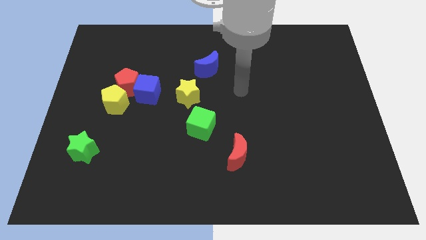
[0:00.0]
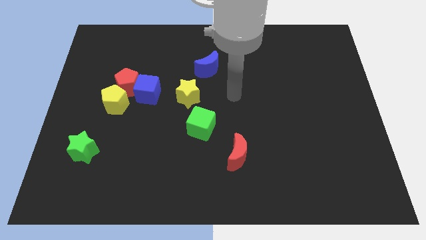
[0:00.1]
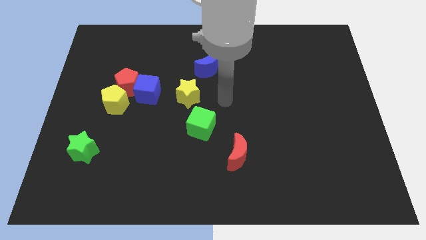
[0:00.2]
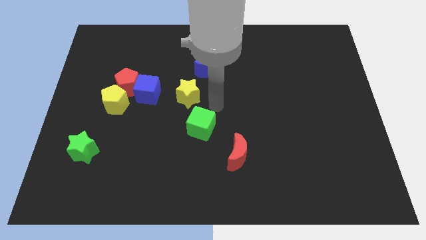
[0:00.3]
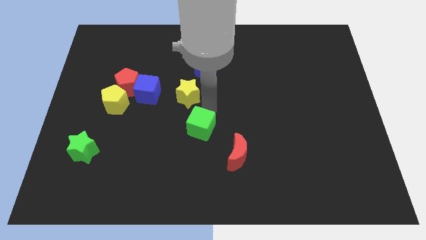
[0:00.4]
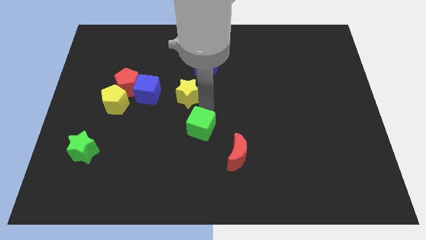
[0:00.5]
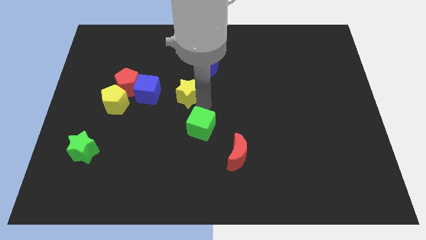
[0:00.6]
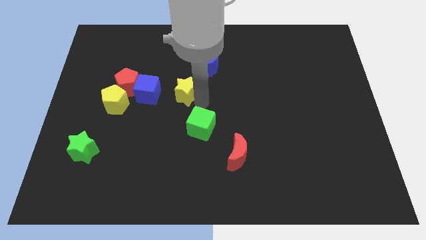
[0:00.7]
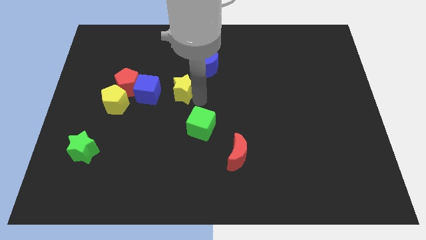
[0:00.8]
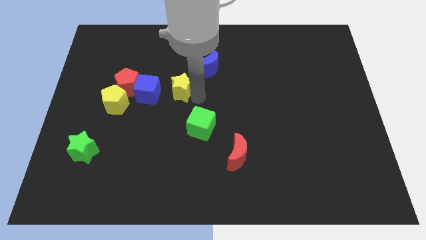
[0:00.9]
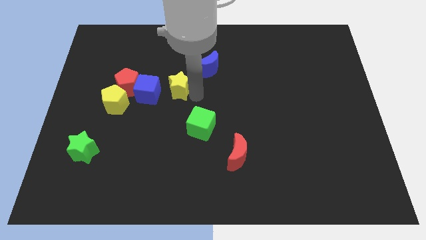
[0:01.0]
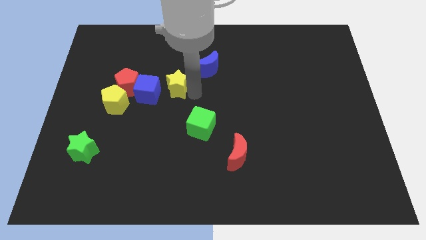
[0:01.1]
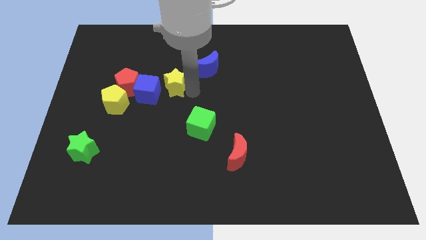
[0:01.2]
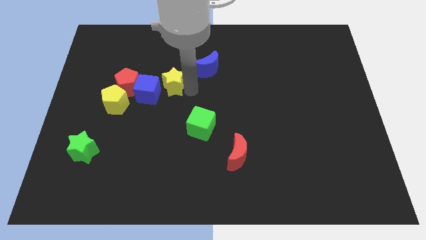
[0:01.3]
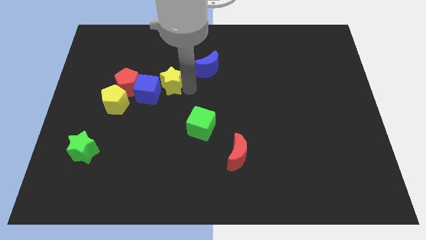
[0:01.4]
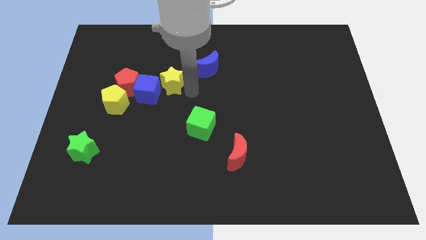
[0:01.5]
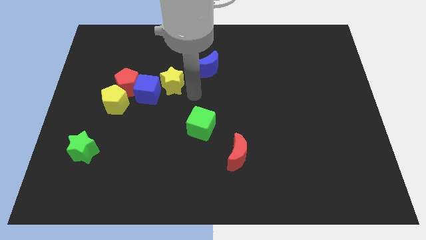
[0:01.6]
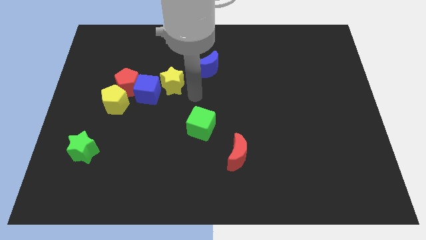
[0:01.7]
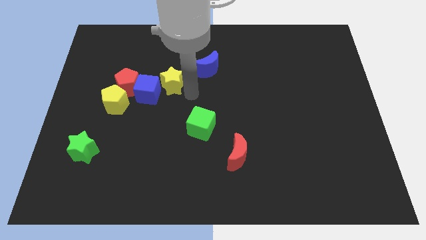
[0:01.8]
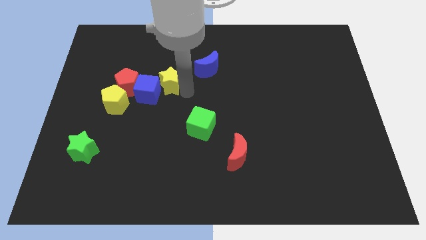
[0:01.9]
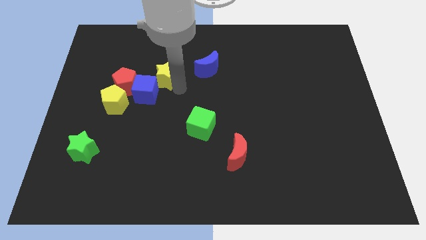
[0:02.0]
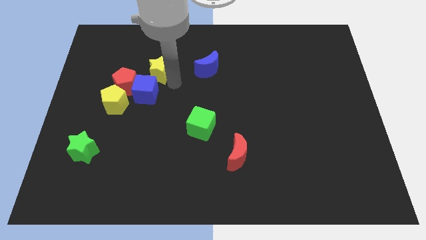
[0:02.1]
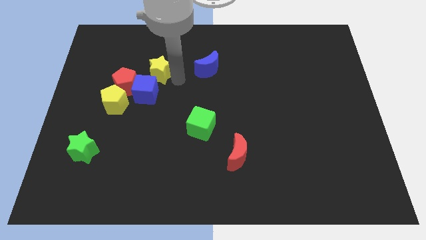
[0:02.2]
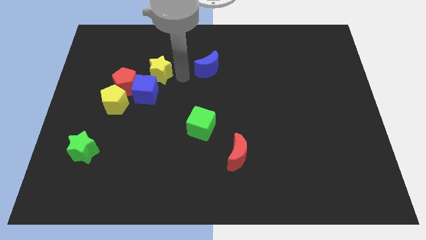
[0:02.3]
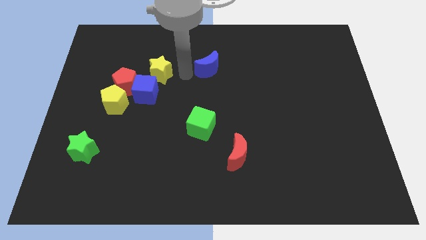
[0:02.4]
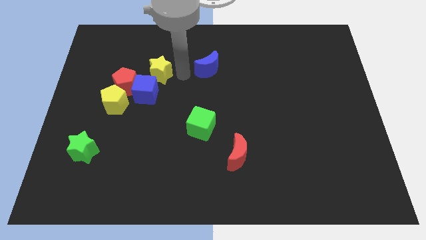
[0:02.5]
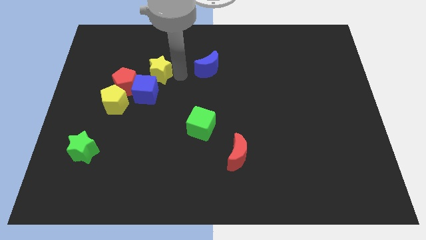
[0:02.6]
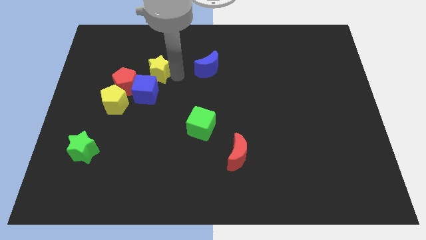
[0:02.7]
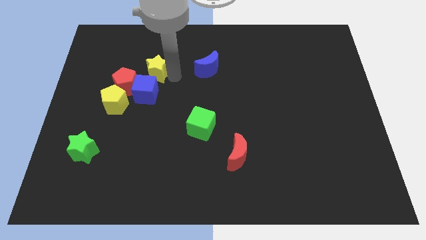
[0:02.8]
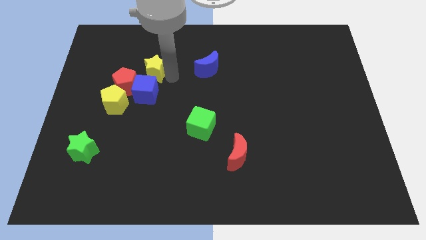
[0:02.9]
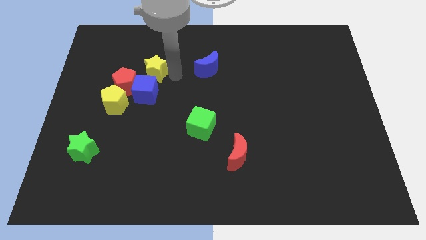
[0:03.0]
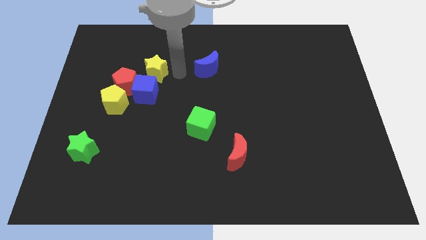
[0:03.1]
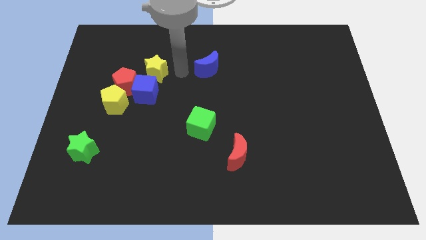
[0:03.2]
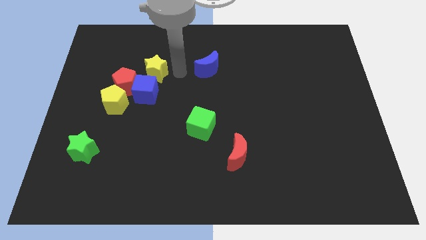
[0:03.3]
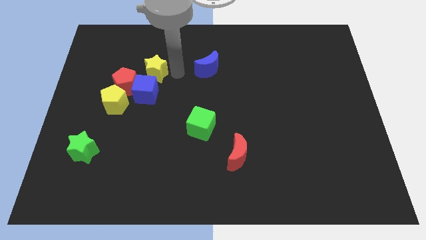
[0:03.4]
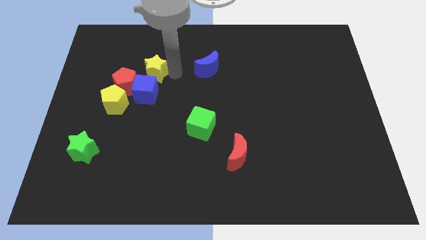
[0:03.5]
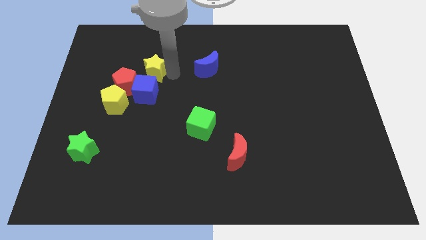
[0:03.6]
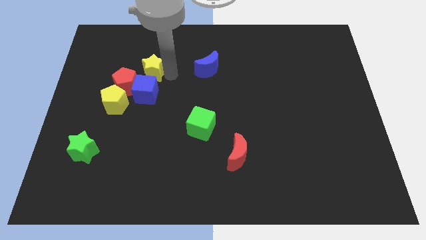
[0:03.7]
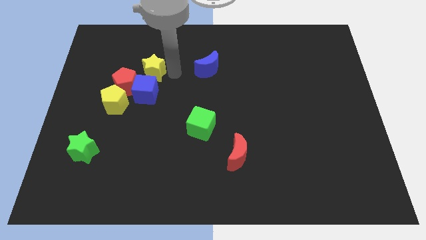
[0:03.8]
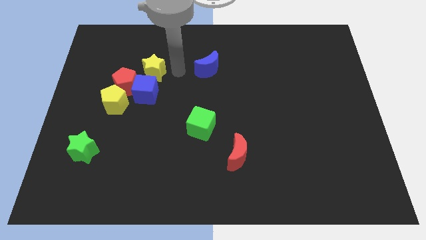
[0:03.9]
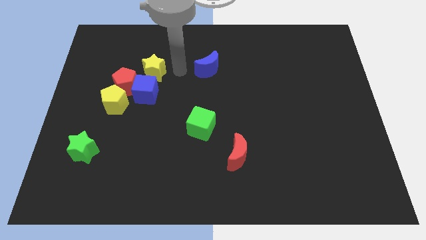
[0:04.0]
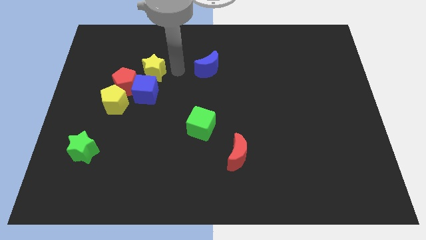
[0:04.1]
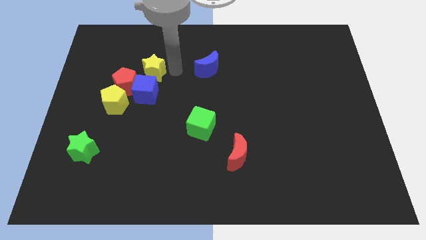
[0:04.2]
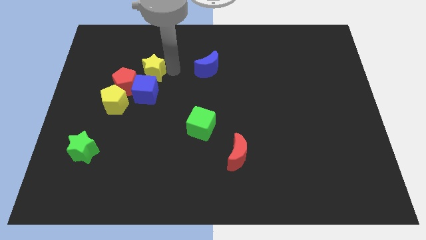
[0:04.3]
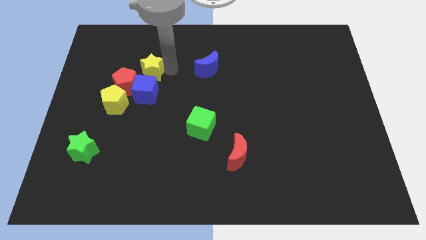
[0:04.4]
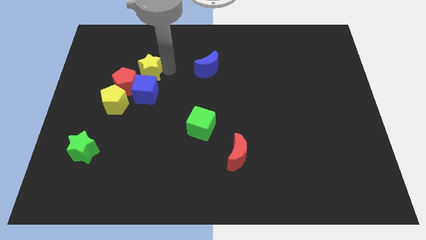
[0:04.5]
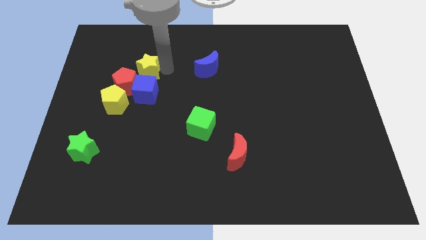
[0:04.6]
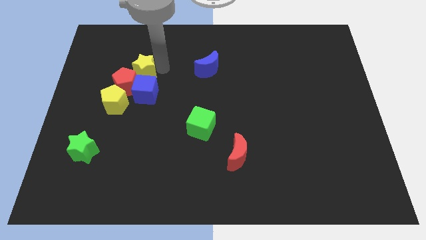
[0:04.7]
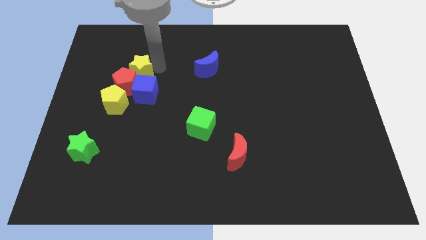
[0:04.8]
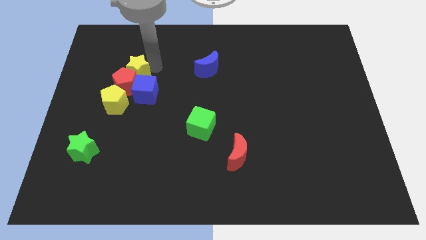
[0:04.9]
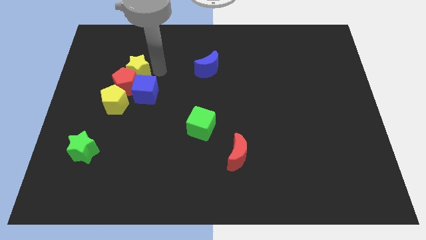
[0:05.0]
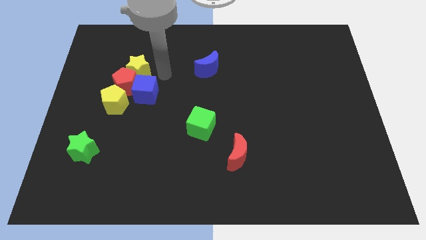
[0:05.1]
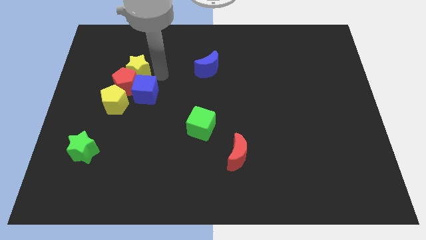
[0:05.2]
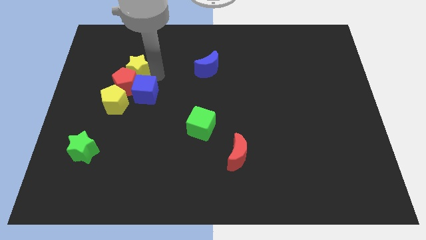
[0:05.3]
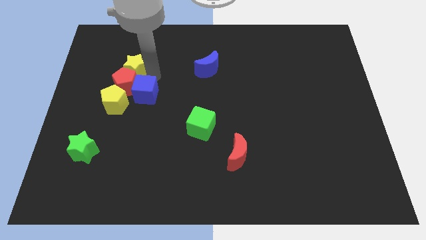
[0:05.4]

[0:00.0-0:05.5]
push the yellow star to the top left side of the red pentagon

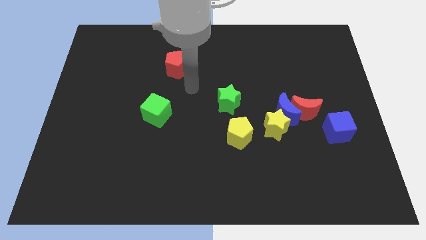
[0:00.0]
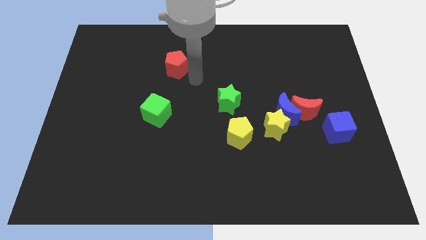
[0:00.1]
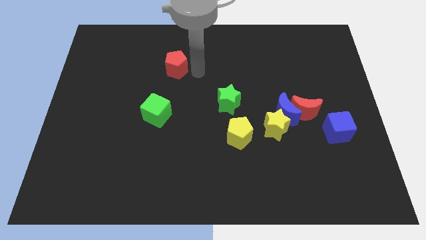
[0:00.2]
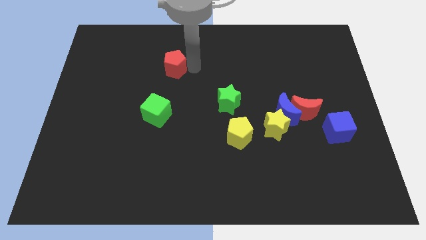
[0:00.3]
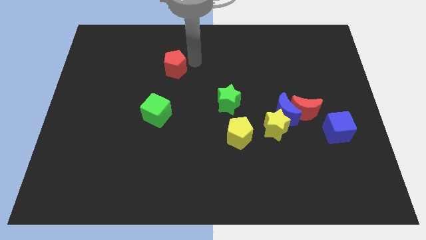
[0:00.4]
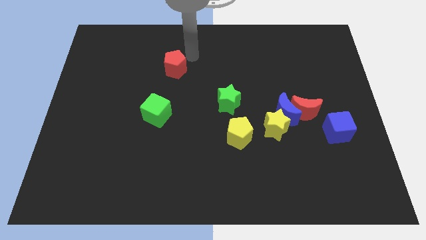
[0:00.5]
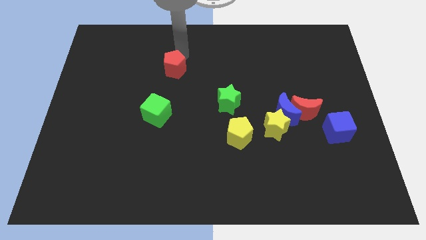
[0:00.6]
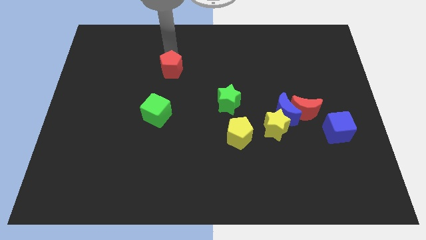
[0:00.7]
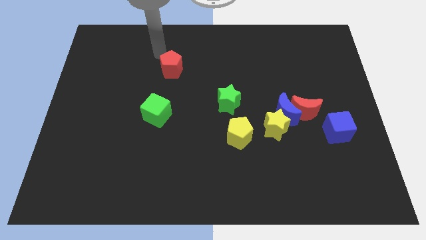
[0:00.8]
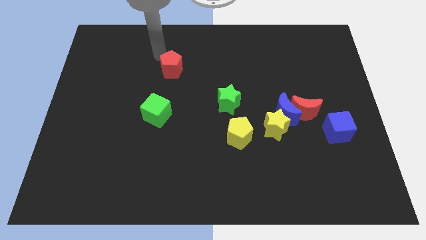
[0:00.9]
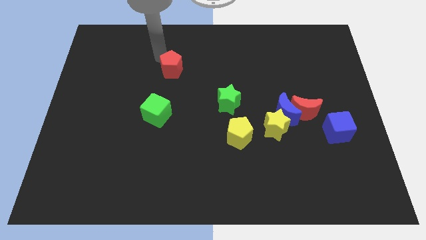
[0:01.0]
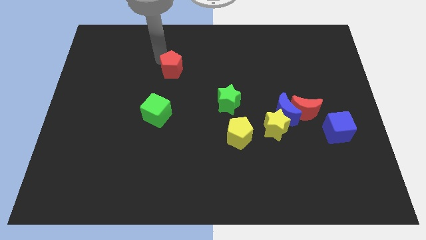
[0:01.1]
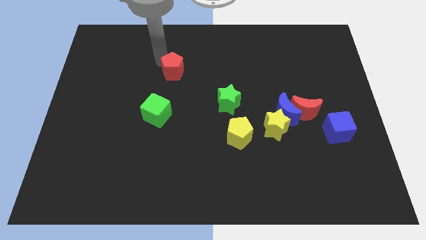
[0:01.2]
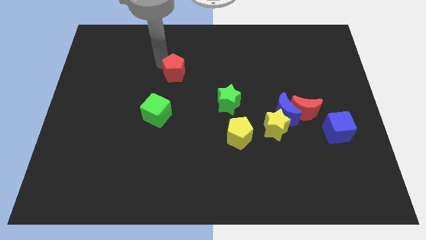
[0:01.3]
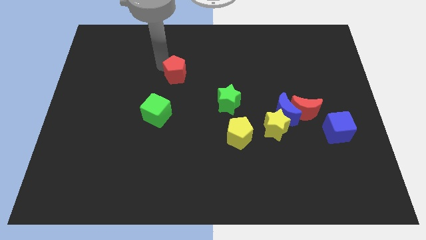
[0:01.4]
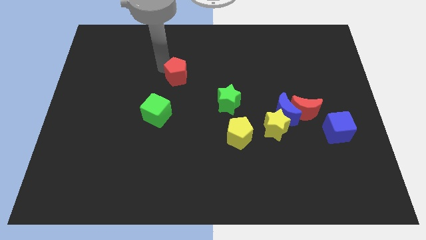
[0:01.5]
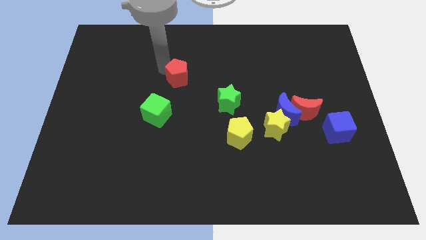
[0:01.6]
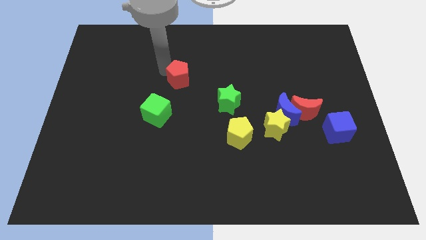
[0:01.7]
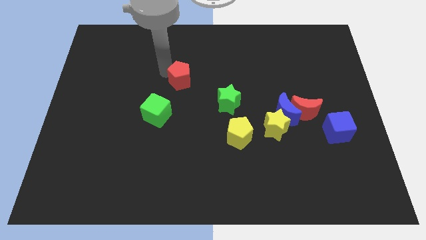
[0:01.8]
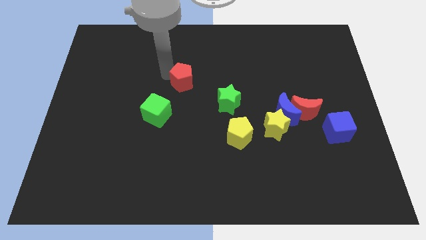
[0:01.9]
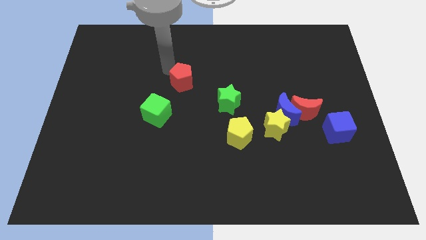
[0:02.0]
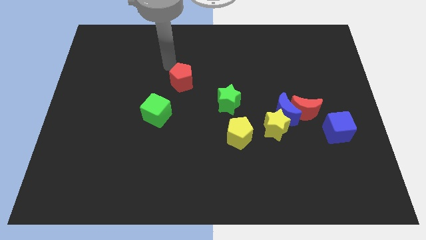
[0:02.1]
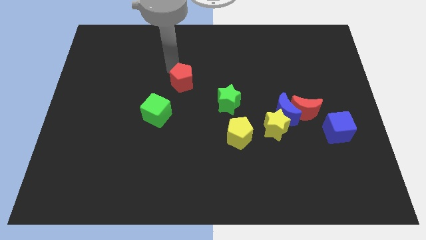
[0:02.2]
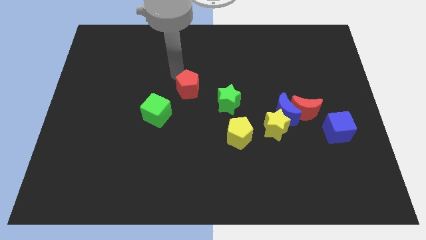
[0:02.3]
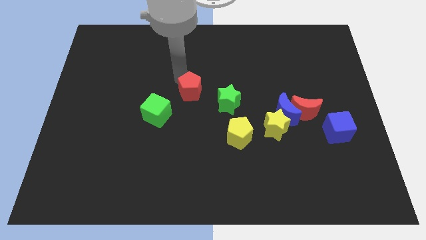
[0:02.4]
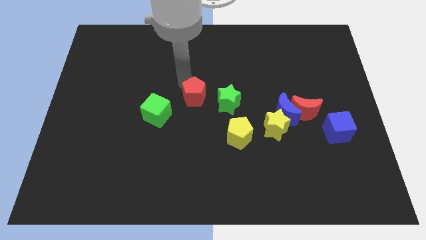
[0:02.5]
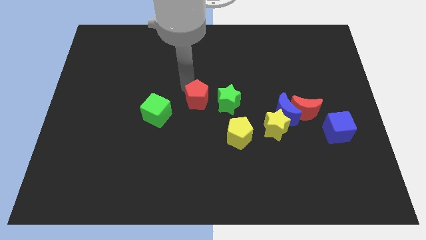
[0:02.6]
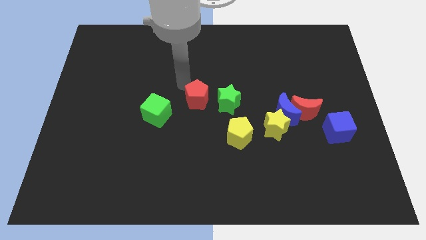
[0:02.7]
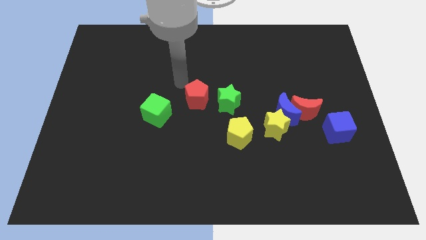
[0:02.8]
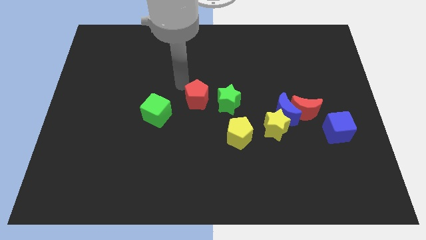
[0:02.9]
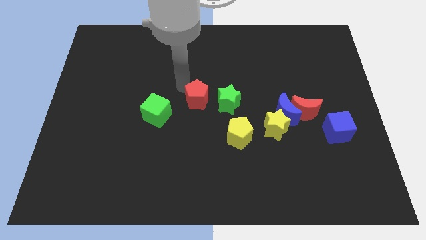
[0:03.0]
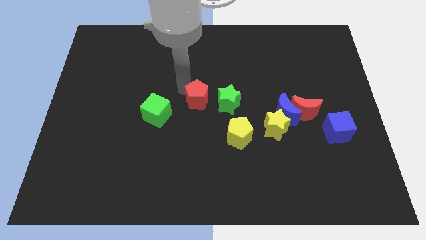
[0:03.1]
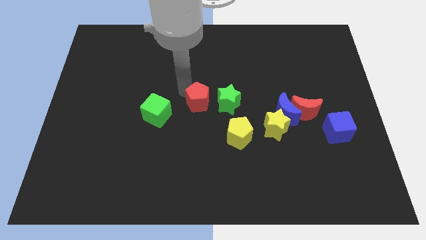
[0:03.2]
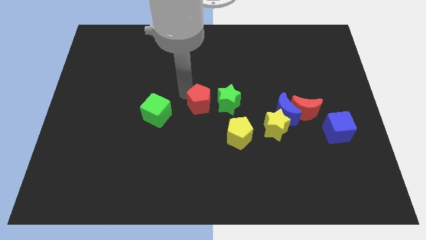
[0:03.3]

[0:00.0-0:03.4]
move the red pentagon diagonally up and to the left of the yellow pentagon
